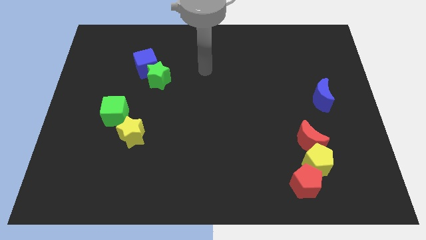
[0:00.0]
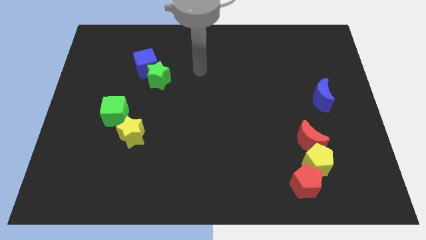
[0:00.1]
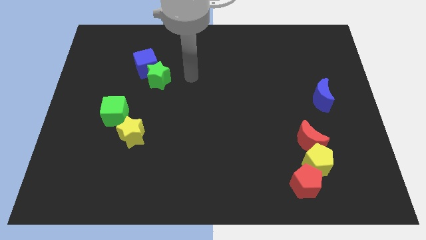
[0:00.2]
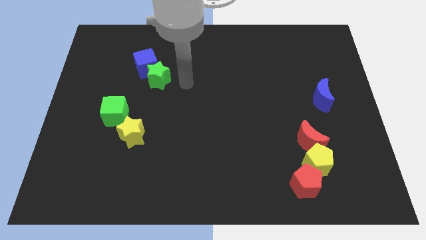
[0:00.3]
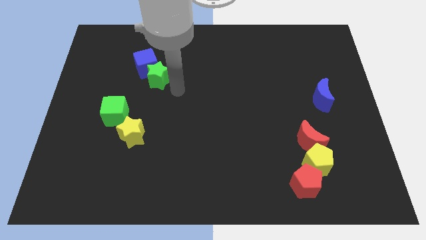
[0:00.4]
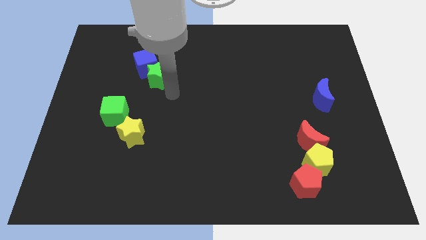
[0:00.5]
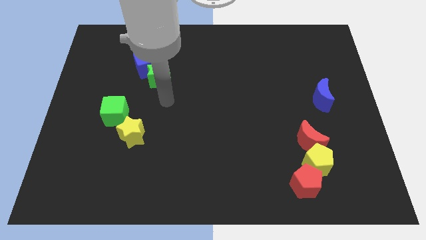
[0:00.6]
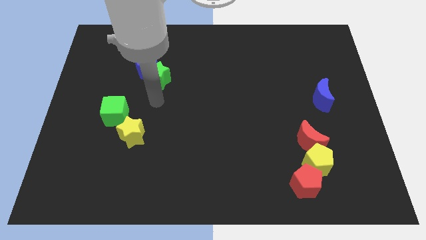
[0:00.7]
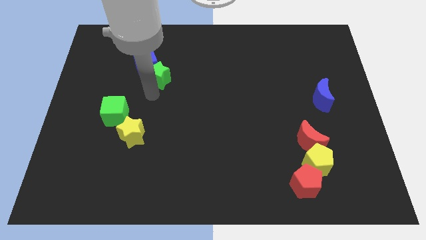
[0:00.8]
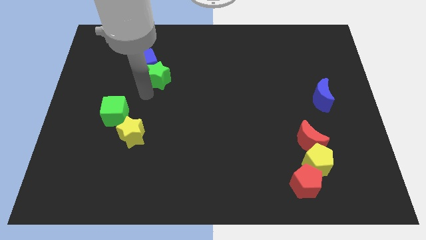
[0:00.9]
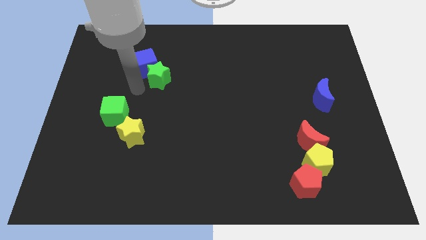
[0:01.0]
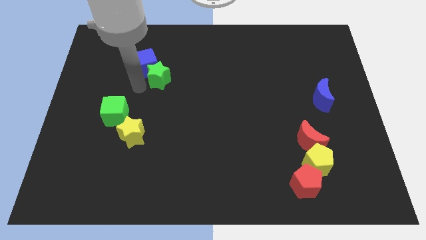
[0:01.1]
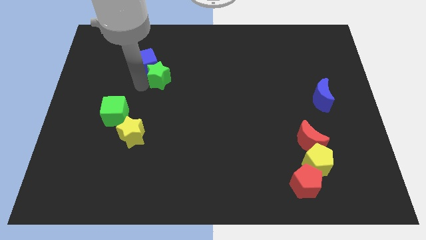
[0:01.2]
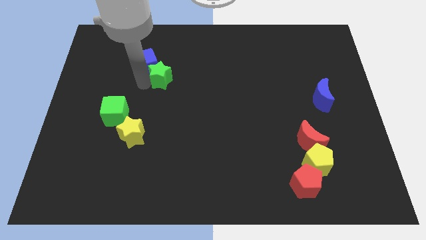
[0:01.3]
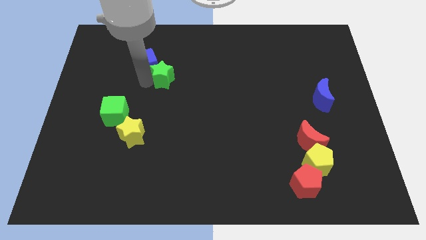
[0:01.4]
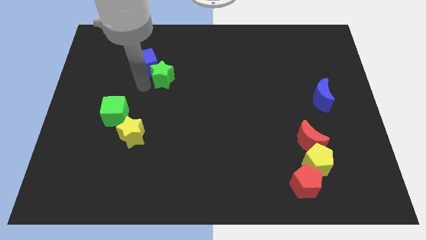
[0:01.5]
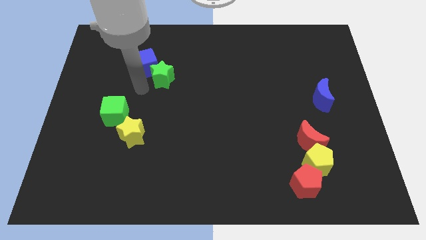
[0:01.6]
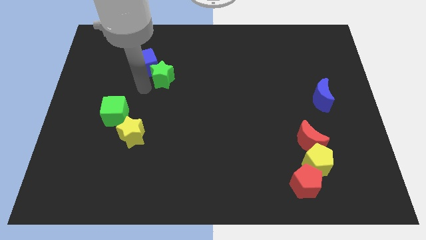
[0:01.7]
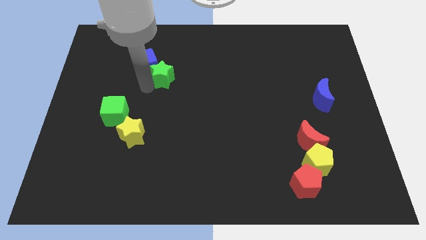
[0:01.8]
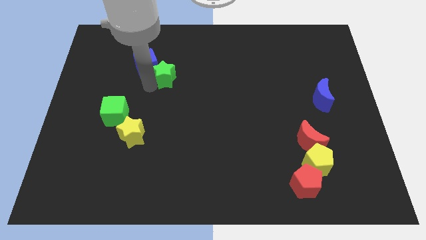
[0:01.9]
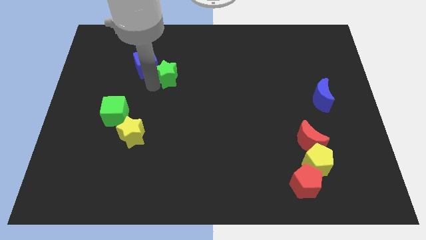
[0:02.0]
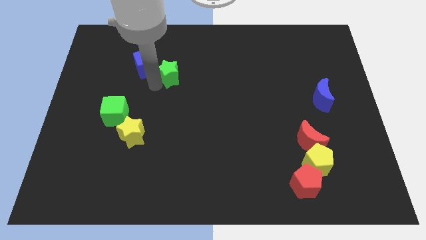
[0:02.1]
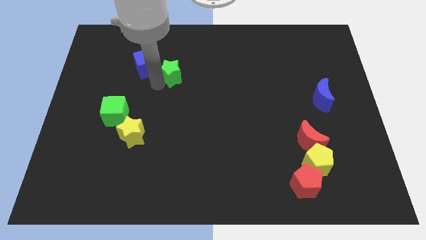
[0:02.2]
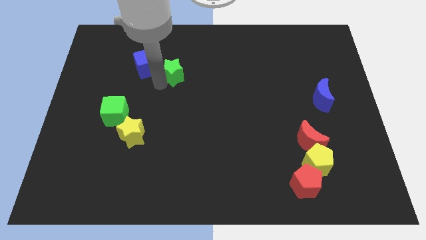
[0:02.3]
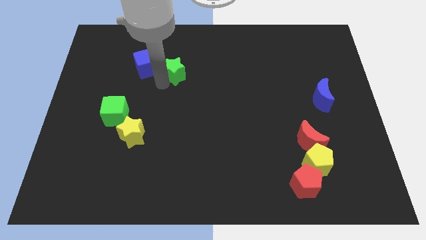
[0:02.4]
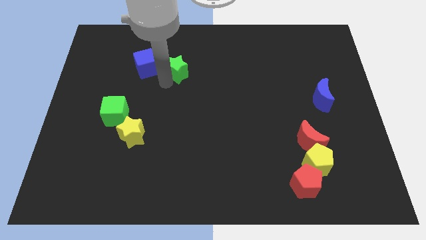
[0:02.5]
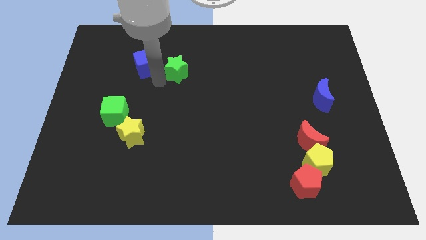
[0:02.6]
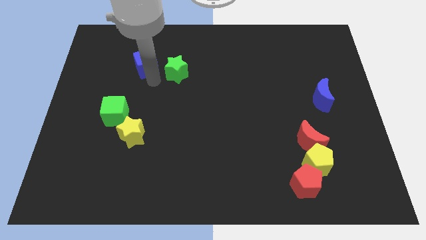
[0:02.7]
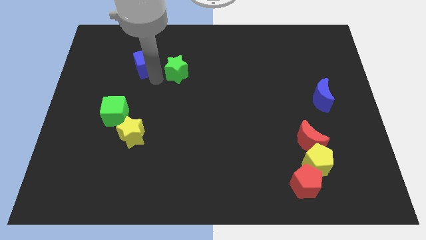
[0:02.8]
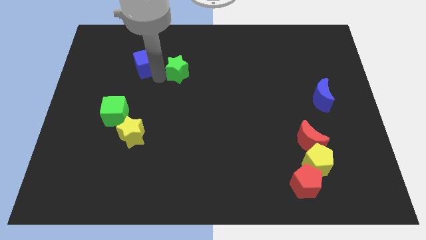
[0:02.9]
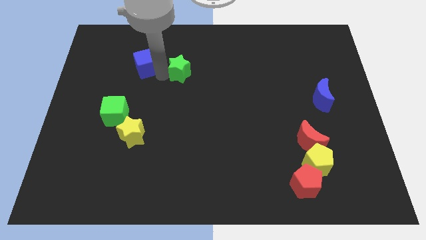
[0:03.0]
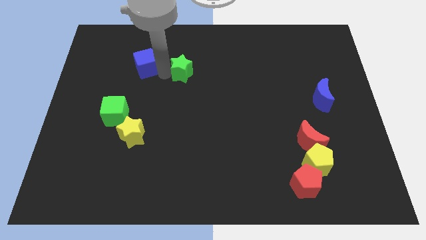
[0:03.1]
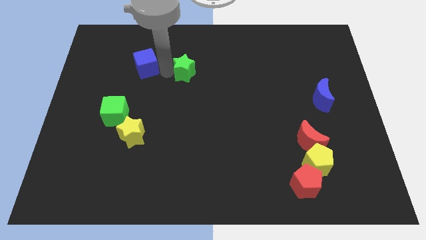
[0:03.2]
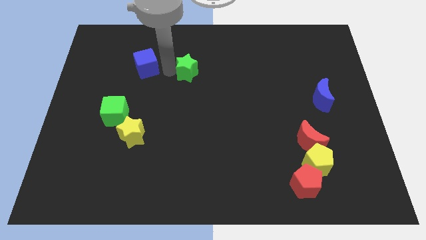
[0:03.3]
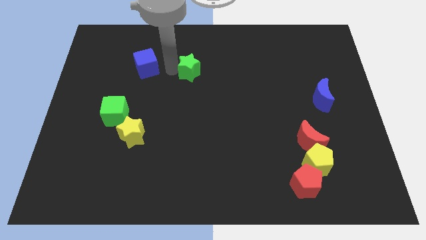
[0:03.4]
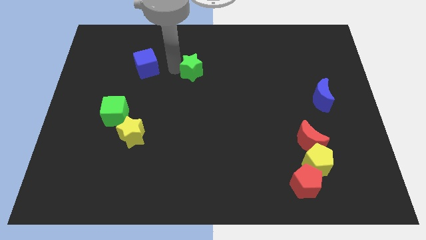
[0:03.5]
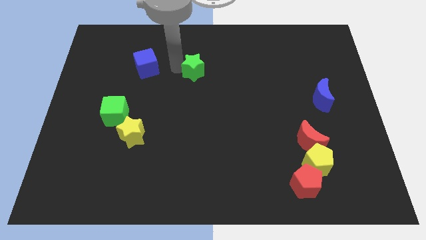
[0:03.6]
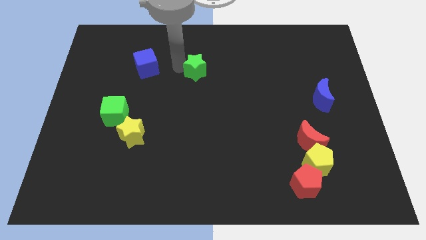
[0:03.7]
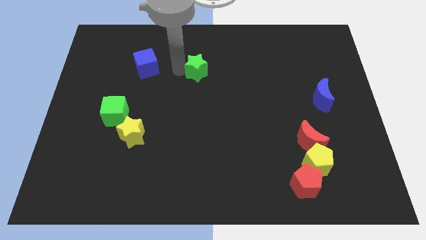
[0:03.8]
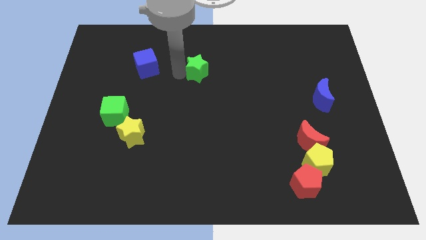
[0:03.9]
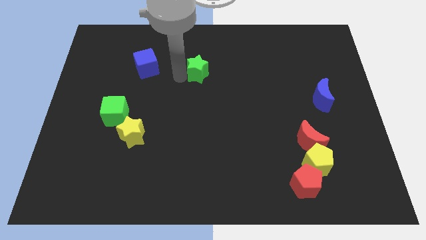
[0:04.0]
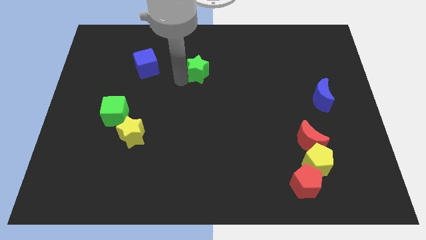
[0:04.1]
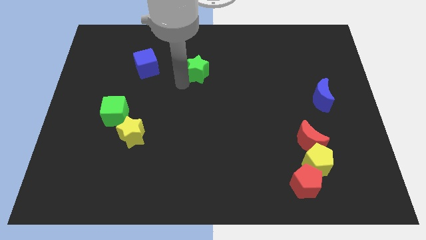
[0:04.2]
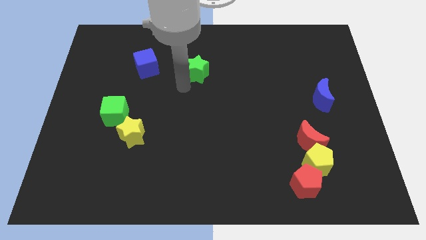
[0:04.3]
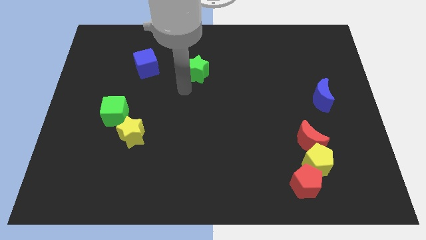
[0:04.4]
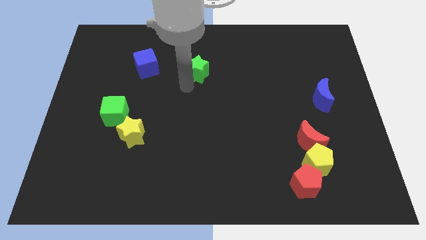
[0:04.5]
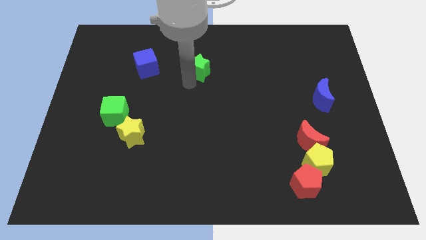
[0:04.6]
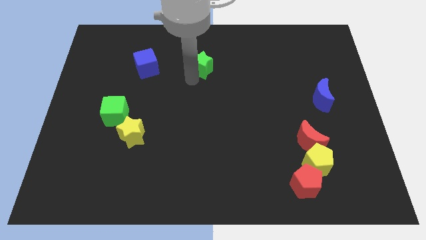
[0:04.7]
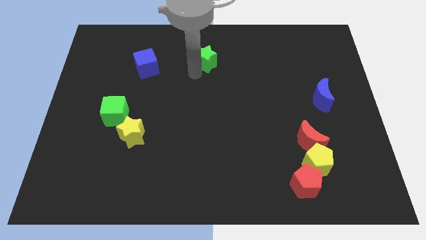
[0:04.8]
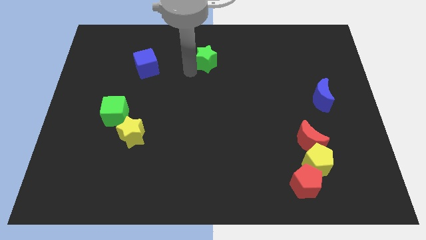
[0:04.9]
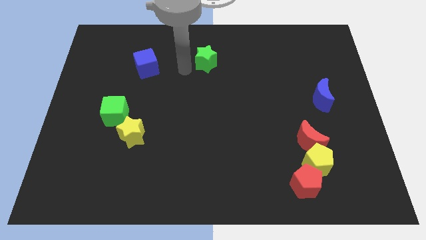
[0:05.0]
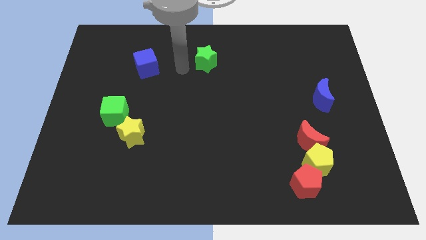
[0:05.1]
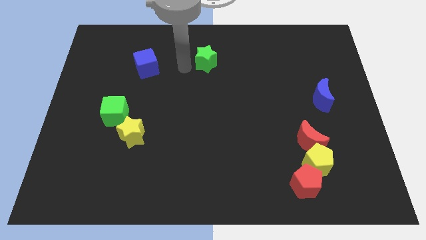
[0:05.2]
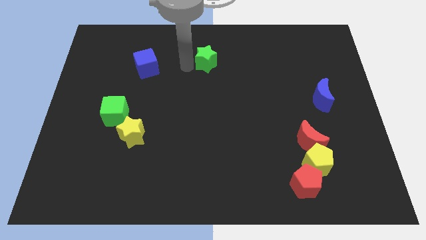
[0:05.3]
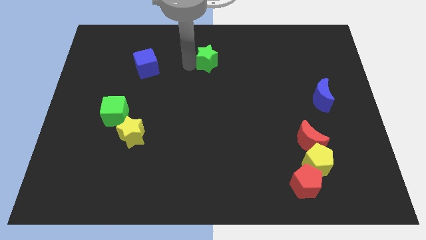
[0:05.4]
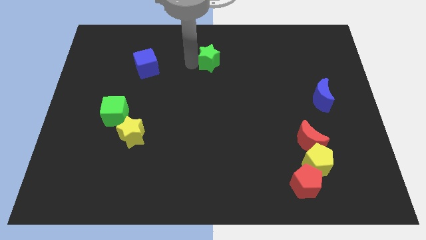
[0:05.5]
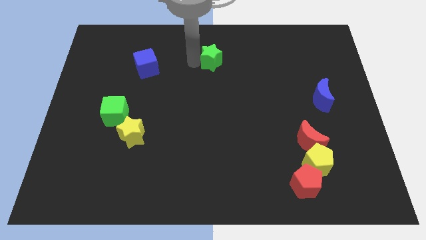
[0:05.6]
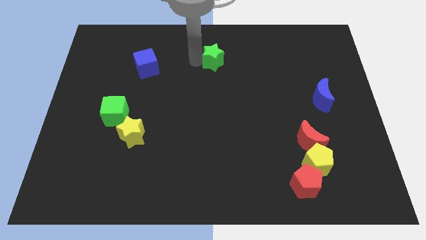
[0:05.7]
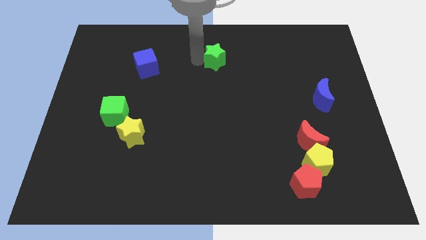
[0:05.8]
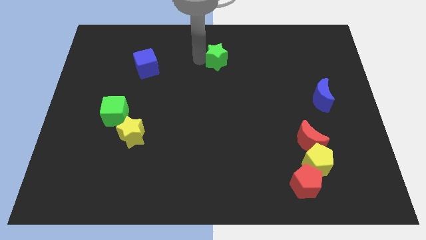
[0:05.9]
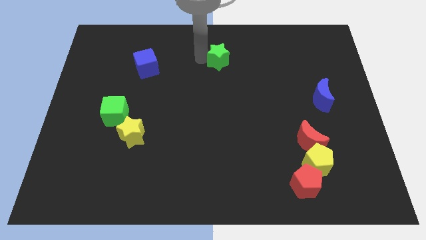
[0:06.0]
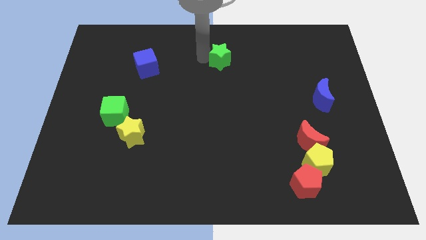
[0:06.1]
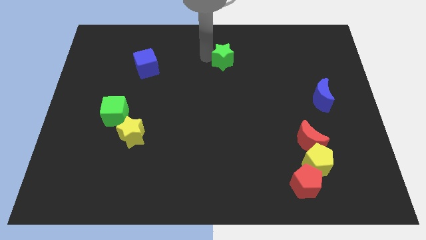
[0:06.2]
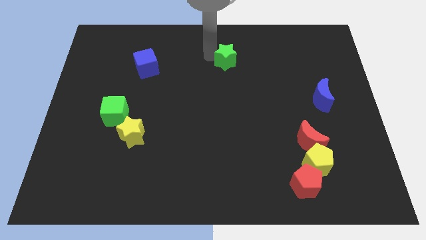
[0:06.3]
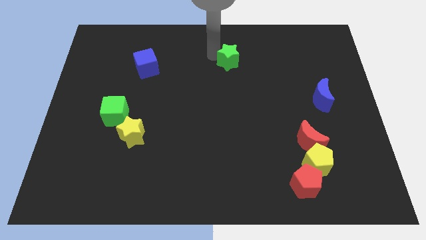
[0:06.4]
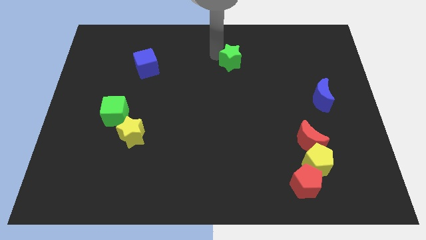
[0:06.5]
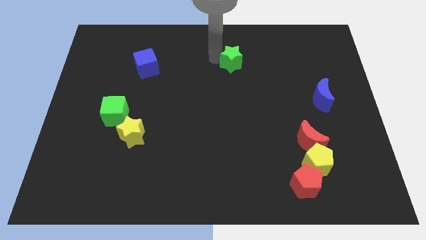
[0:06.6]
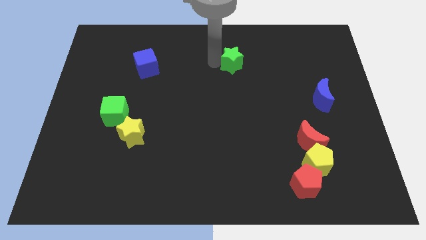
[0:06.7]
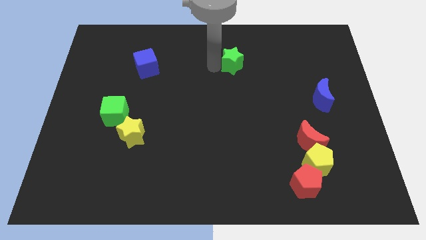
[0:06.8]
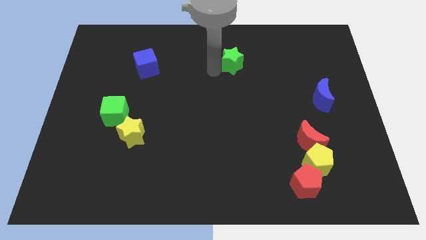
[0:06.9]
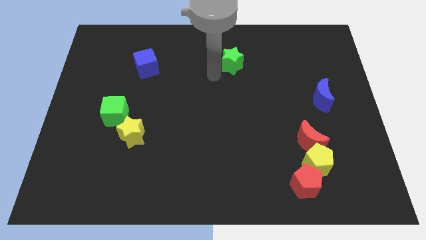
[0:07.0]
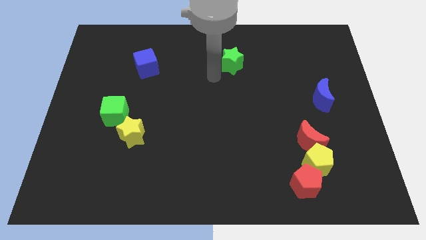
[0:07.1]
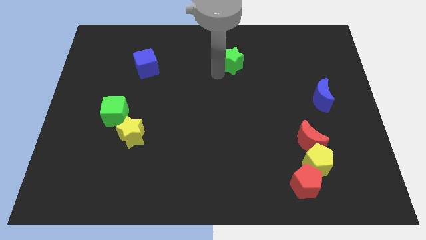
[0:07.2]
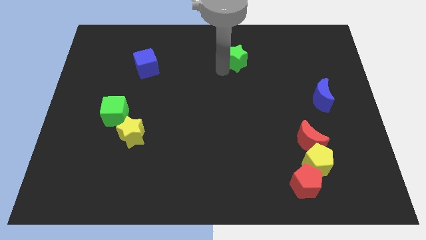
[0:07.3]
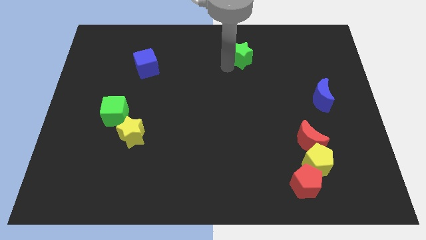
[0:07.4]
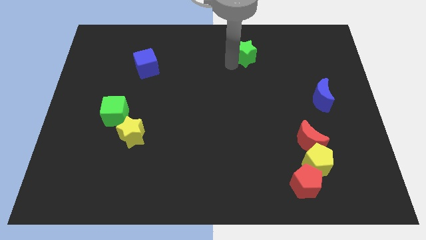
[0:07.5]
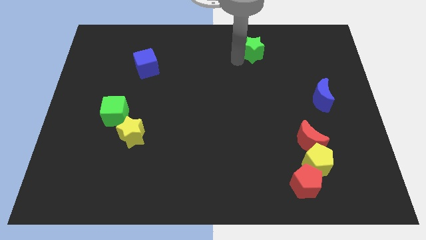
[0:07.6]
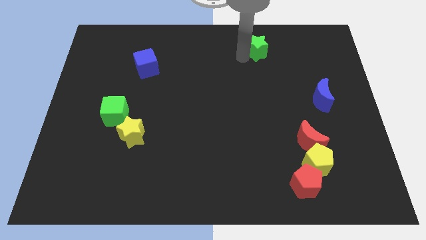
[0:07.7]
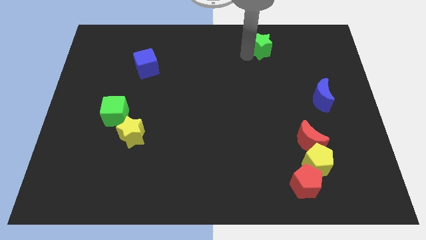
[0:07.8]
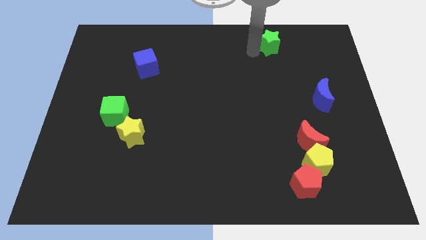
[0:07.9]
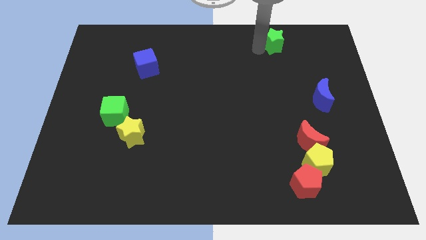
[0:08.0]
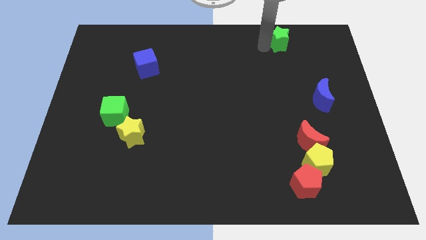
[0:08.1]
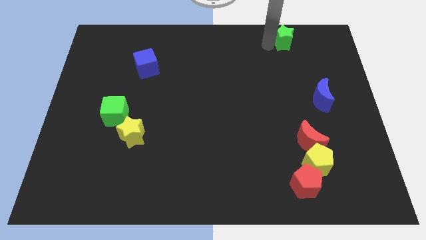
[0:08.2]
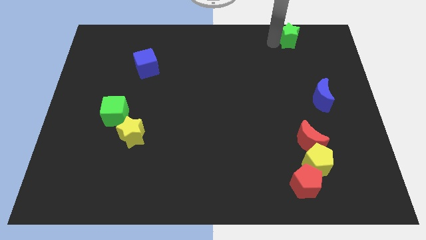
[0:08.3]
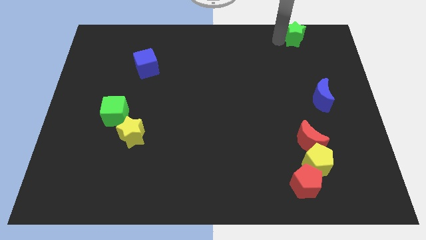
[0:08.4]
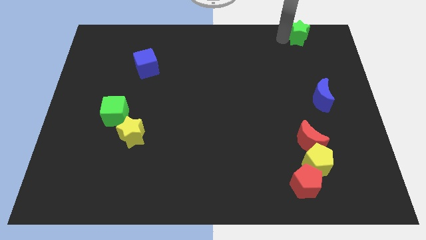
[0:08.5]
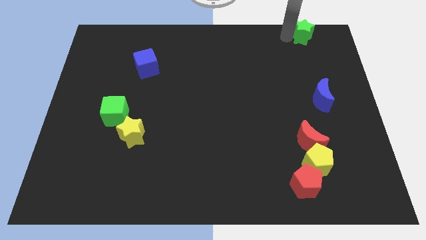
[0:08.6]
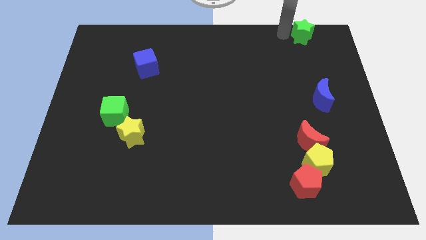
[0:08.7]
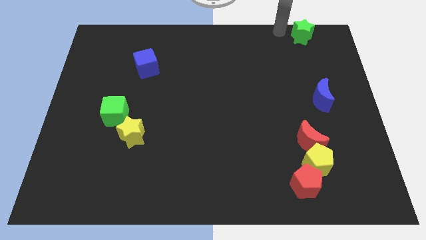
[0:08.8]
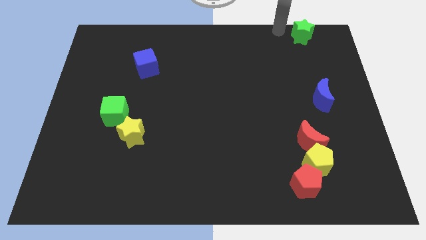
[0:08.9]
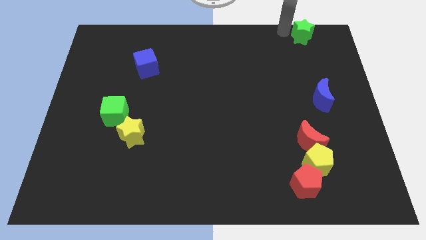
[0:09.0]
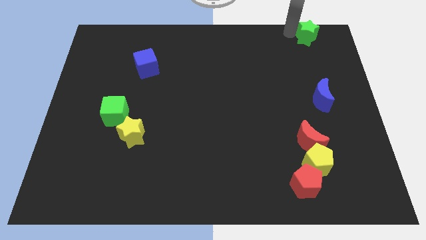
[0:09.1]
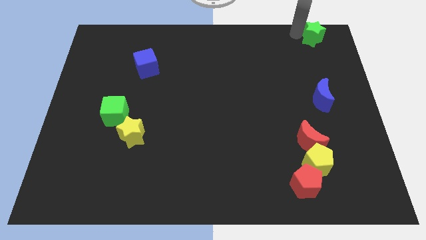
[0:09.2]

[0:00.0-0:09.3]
slide the green star to the top right of the board
